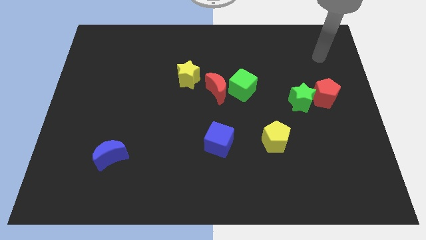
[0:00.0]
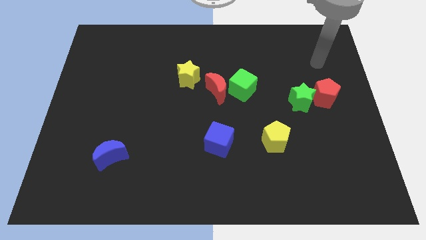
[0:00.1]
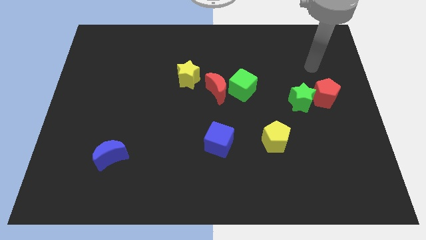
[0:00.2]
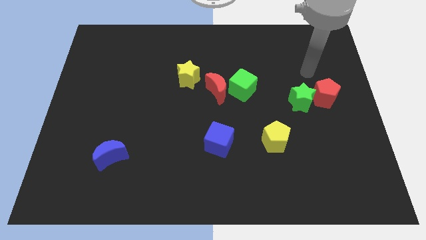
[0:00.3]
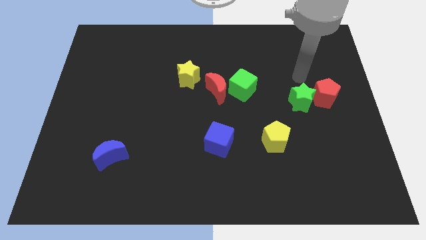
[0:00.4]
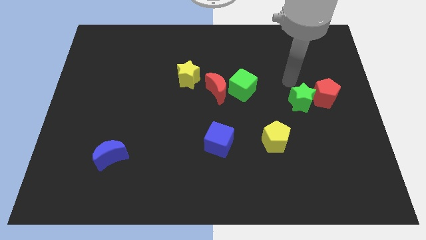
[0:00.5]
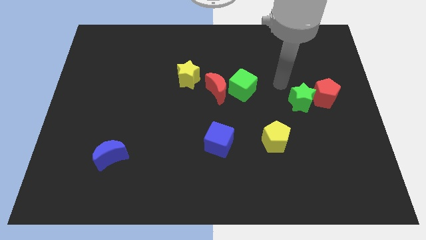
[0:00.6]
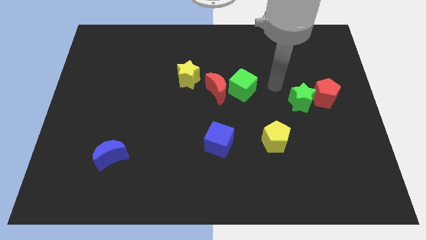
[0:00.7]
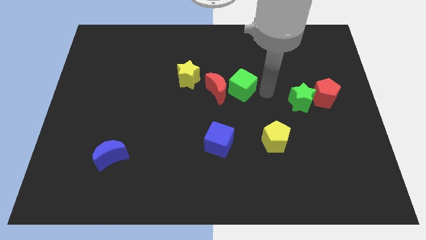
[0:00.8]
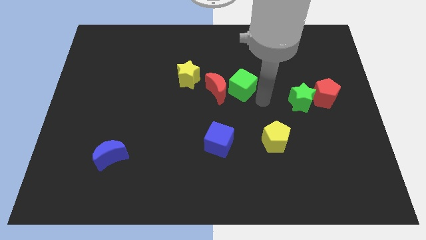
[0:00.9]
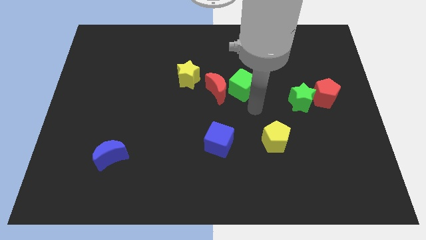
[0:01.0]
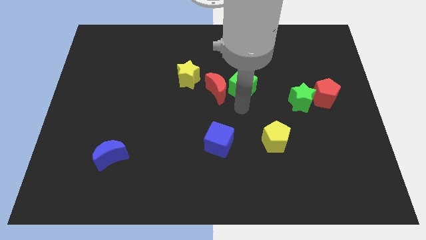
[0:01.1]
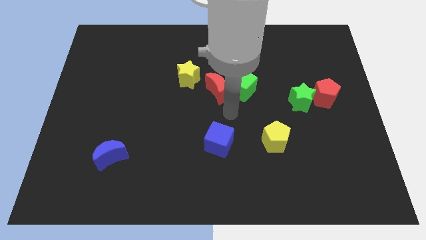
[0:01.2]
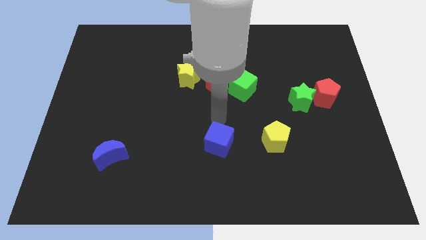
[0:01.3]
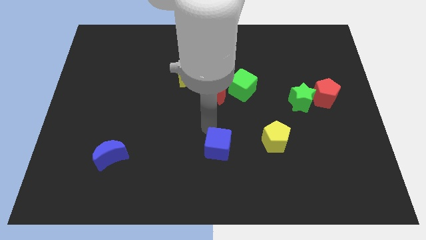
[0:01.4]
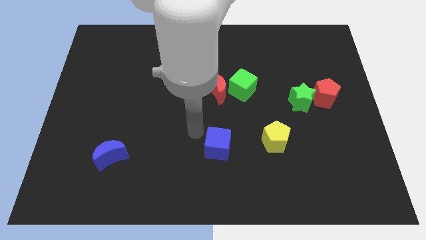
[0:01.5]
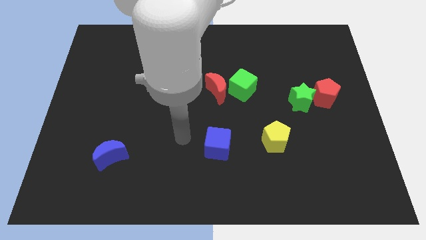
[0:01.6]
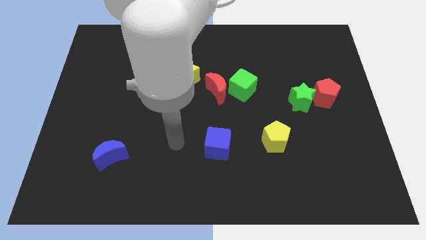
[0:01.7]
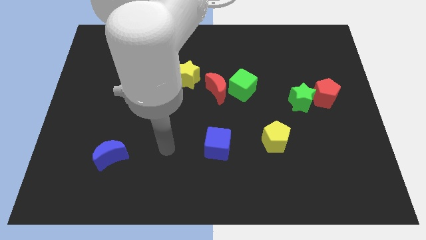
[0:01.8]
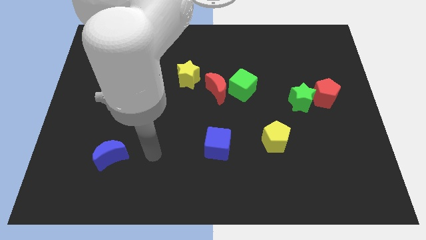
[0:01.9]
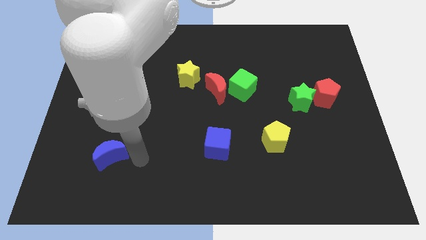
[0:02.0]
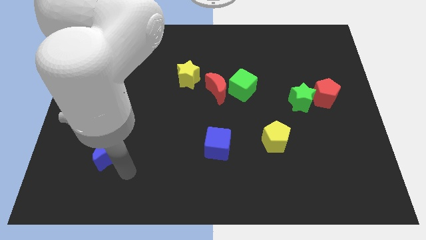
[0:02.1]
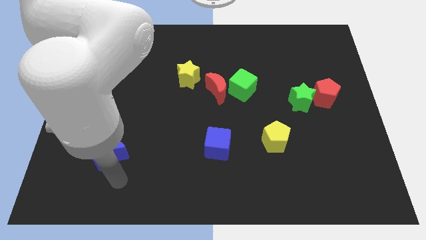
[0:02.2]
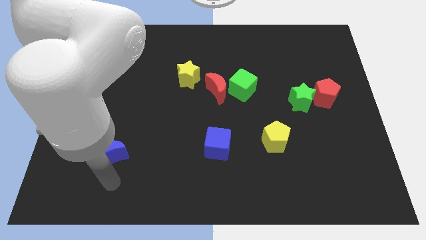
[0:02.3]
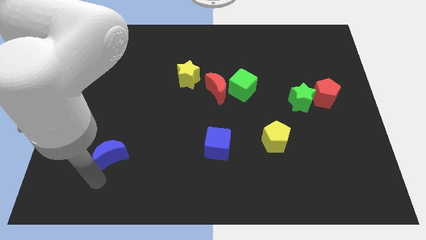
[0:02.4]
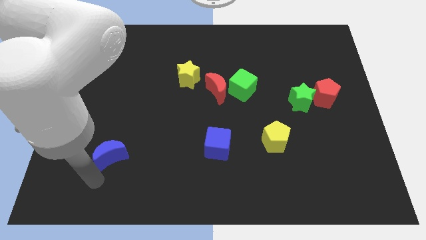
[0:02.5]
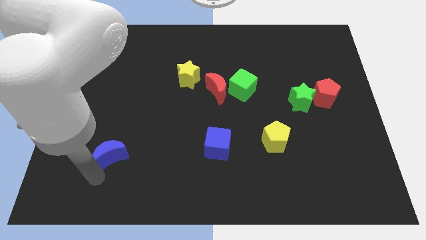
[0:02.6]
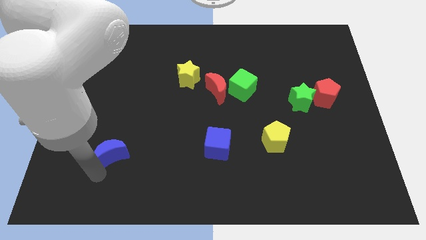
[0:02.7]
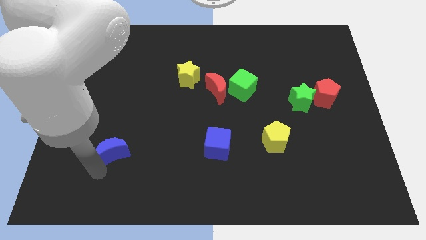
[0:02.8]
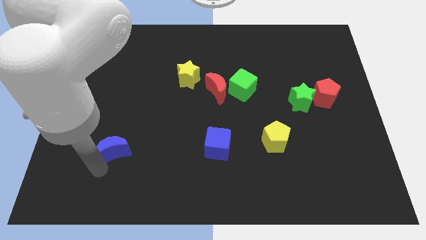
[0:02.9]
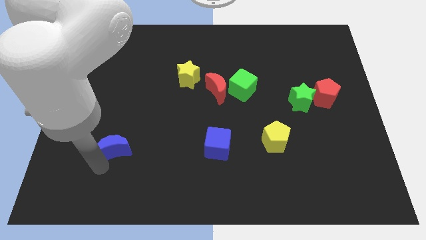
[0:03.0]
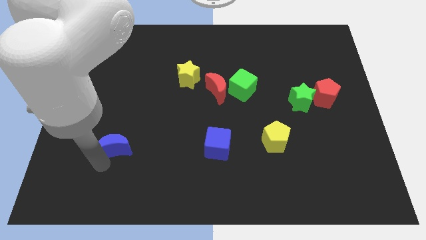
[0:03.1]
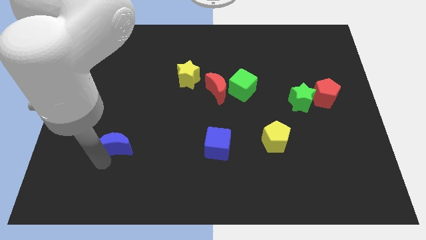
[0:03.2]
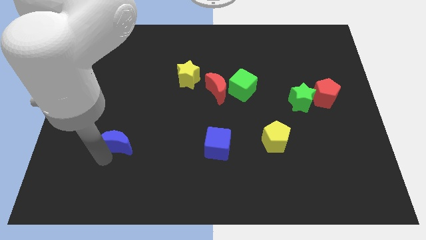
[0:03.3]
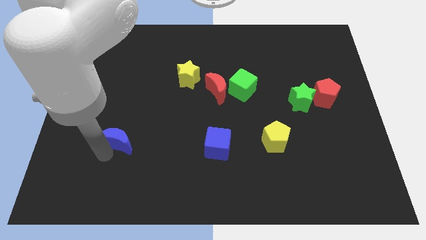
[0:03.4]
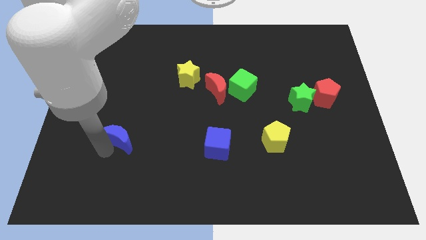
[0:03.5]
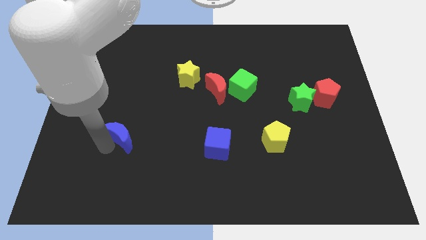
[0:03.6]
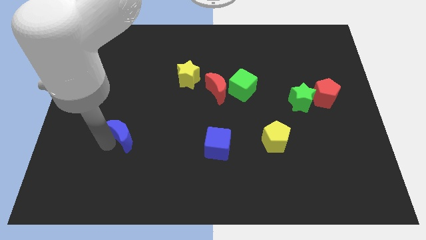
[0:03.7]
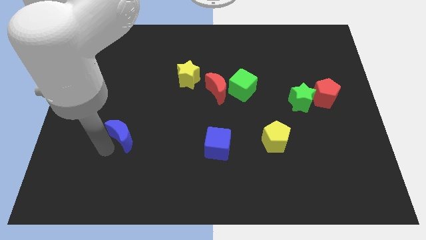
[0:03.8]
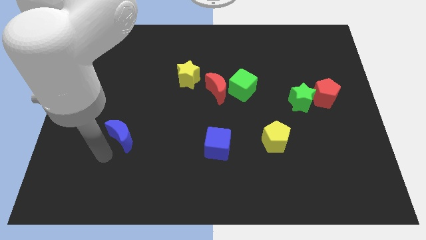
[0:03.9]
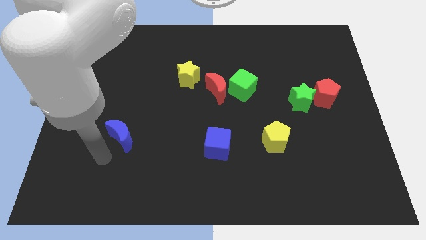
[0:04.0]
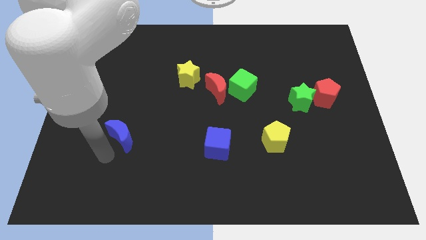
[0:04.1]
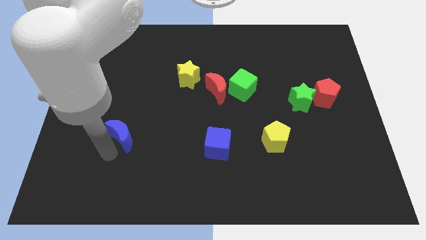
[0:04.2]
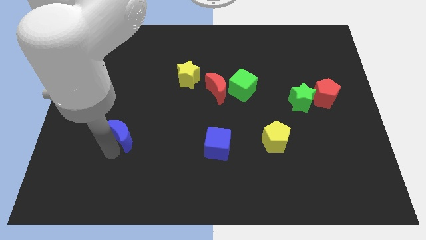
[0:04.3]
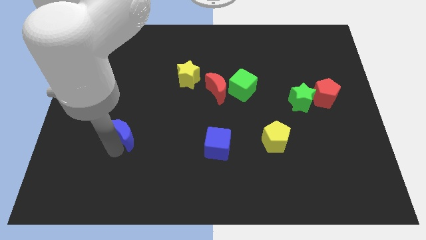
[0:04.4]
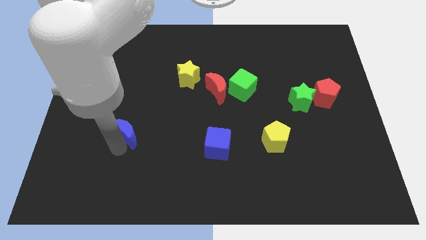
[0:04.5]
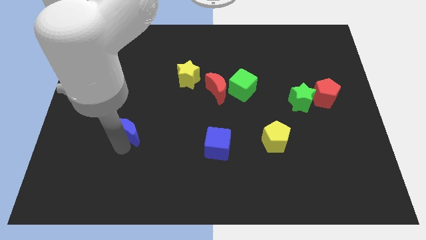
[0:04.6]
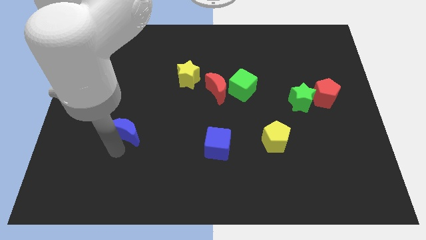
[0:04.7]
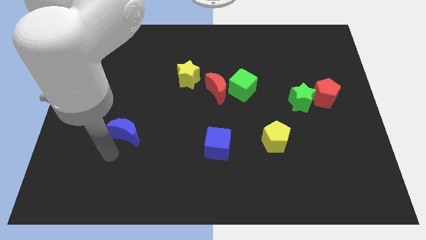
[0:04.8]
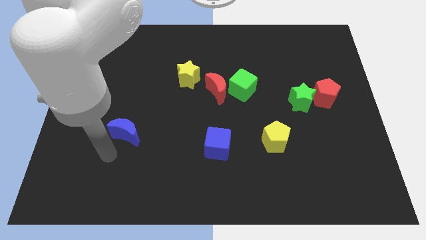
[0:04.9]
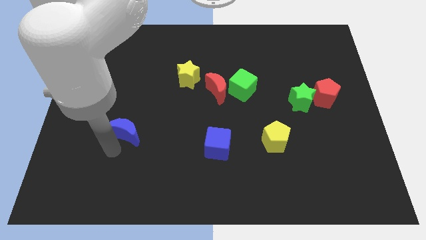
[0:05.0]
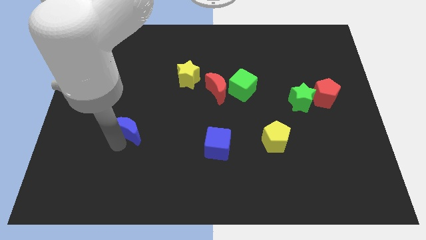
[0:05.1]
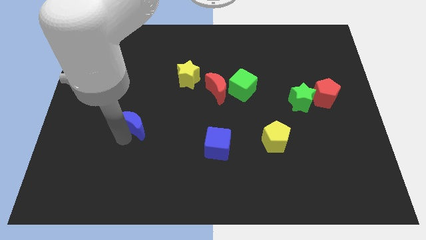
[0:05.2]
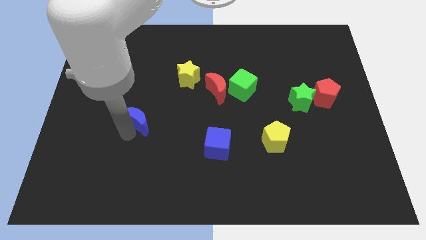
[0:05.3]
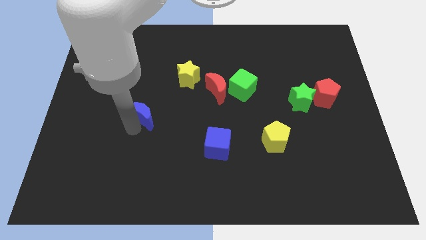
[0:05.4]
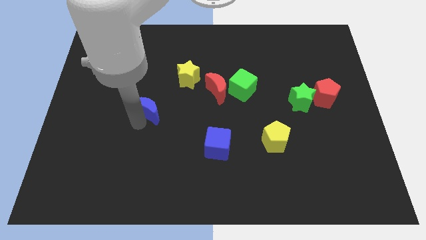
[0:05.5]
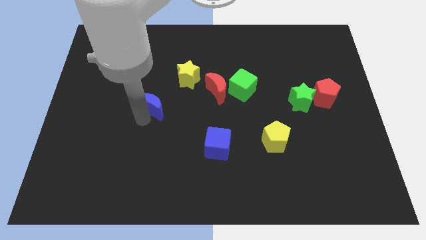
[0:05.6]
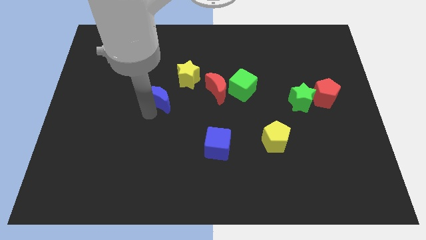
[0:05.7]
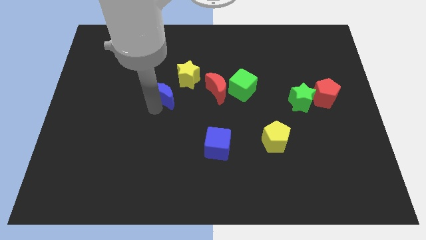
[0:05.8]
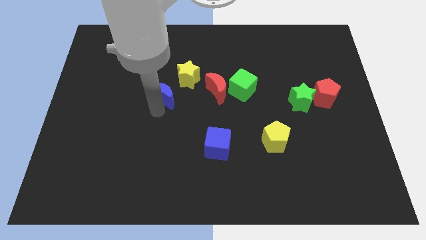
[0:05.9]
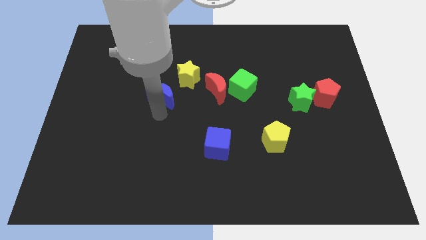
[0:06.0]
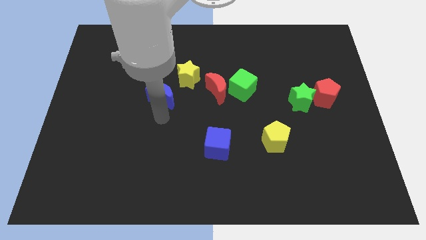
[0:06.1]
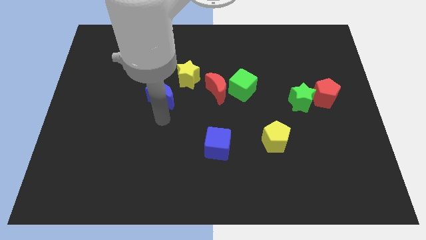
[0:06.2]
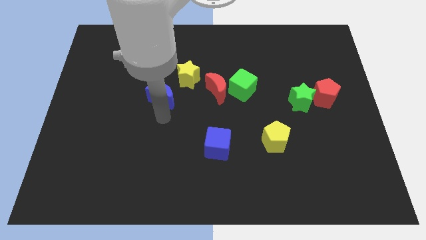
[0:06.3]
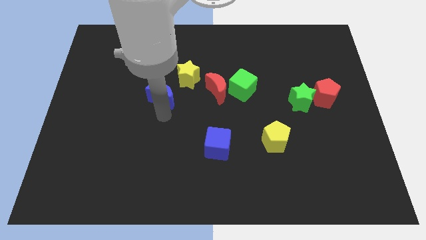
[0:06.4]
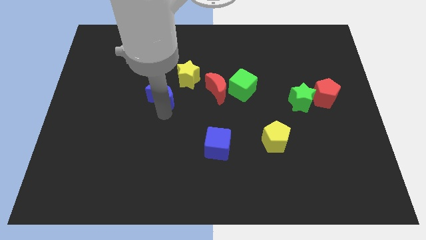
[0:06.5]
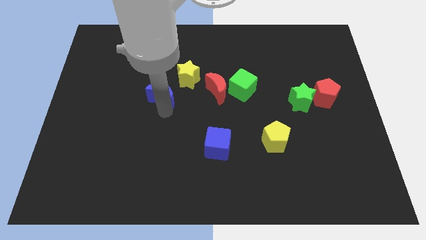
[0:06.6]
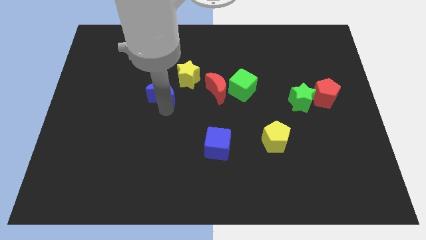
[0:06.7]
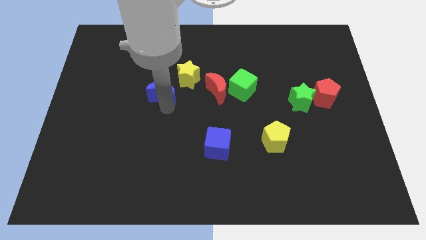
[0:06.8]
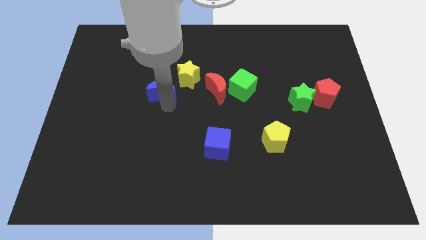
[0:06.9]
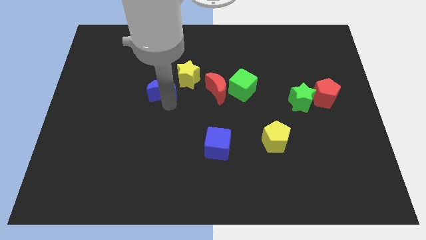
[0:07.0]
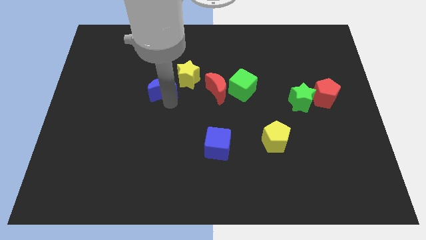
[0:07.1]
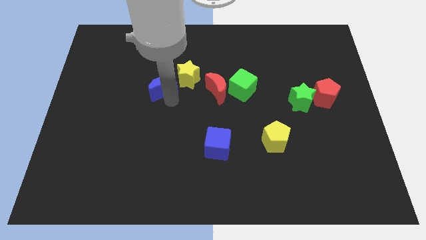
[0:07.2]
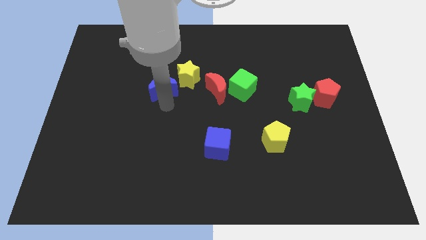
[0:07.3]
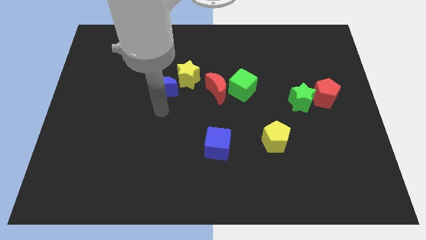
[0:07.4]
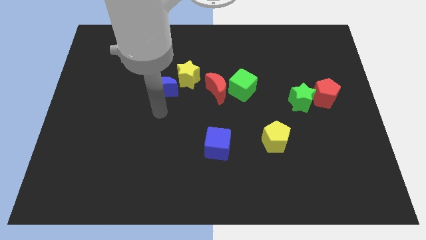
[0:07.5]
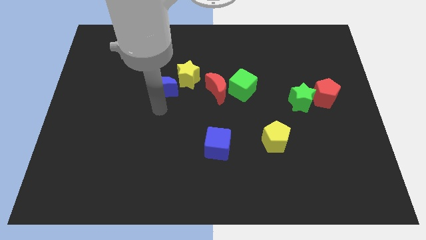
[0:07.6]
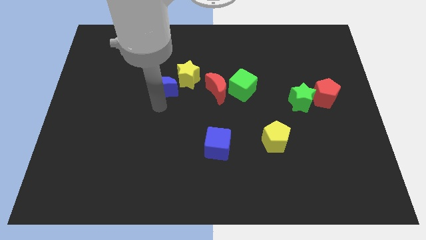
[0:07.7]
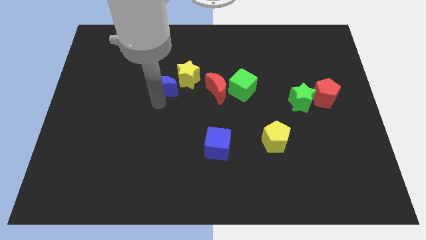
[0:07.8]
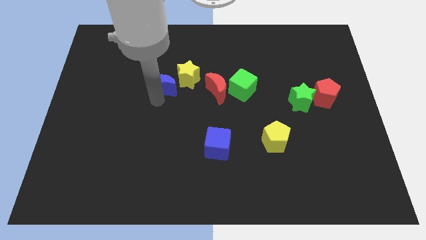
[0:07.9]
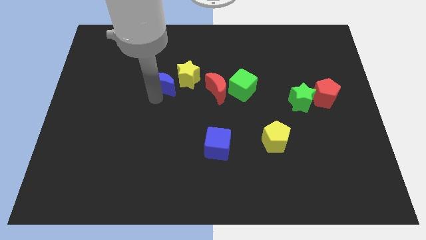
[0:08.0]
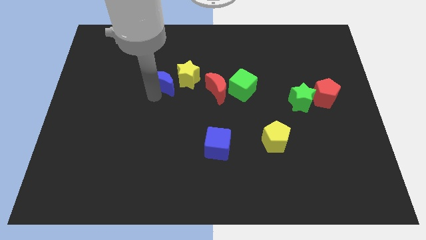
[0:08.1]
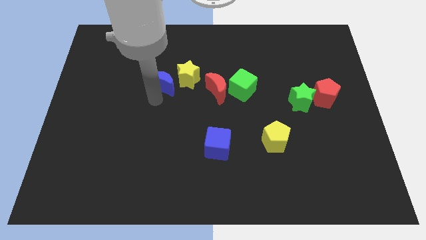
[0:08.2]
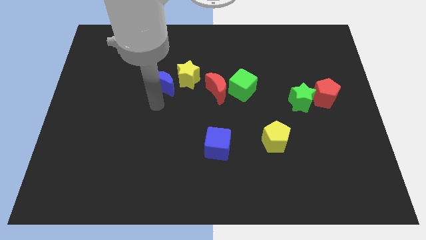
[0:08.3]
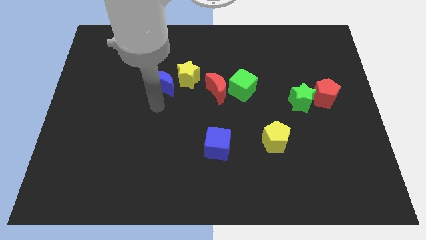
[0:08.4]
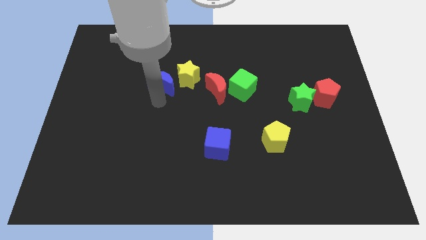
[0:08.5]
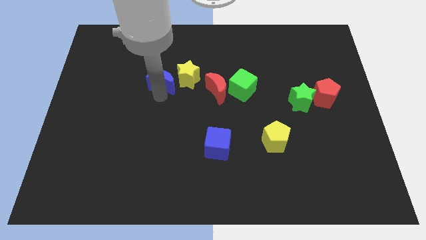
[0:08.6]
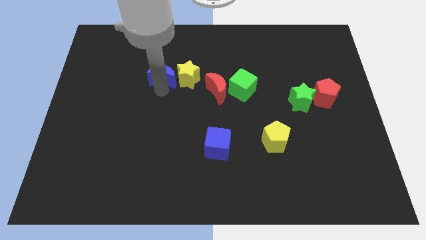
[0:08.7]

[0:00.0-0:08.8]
push the blue moon to the top left side of the yellow star
